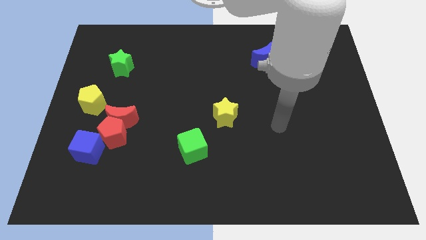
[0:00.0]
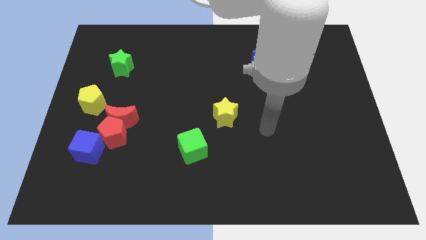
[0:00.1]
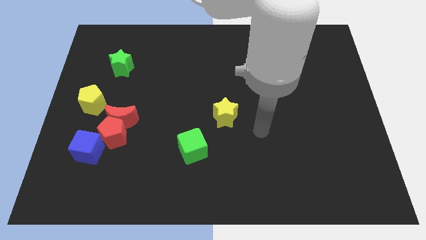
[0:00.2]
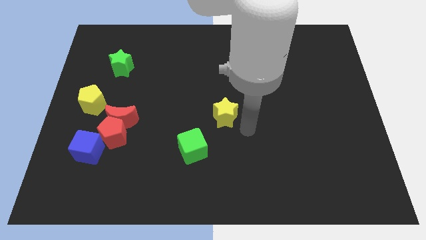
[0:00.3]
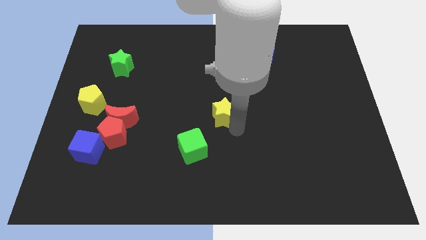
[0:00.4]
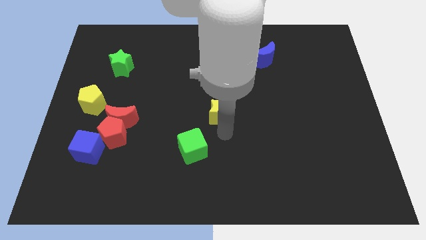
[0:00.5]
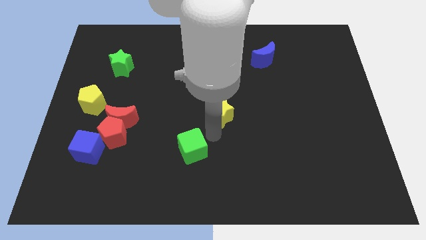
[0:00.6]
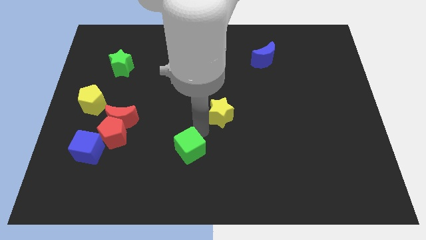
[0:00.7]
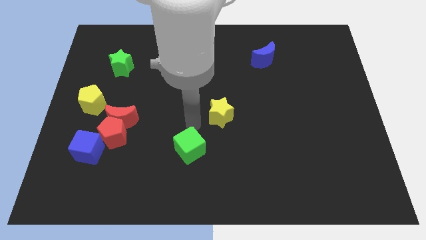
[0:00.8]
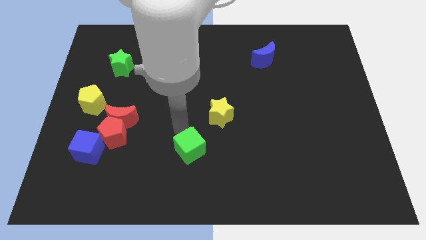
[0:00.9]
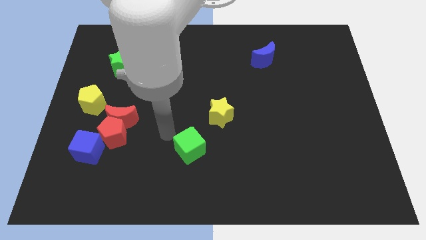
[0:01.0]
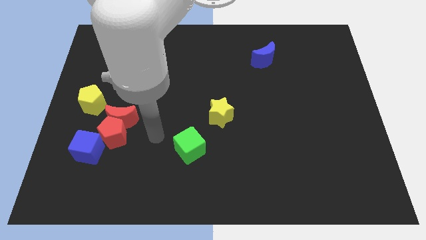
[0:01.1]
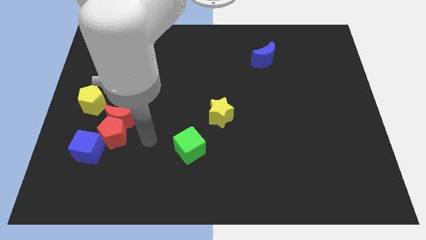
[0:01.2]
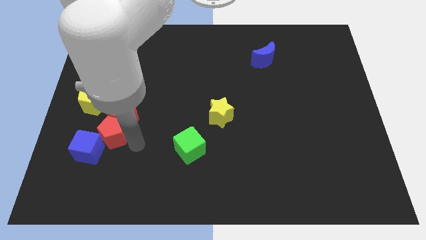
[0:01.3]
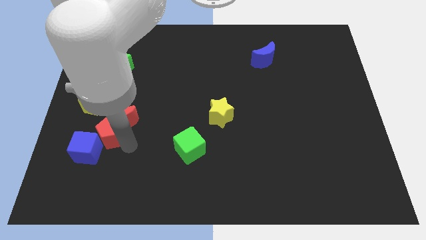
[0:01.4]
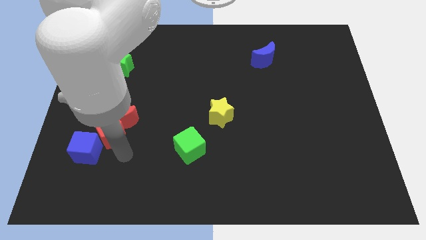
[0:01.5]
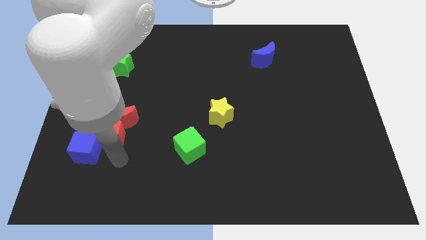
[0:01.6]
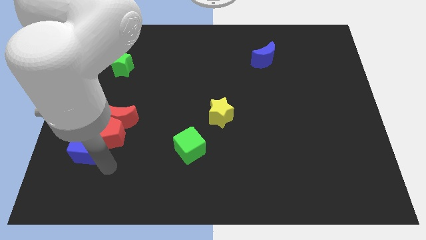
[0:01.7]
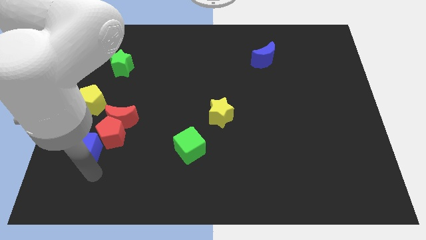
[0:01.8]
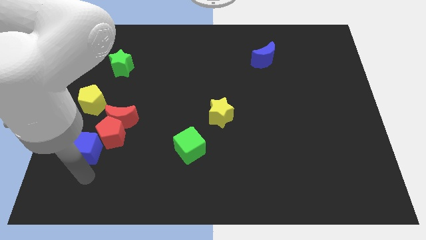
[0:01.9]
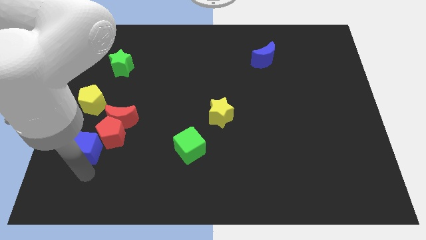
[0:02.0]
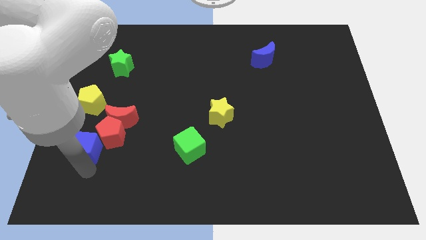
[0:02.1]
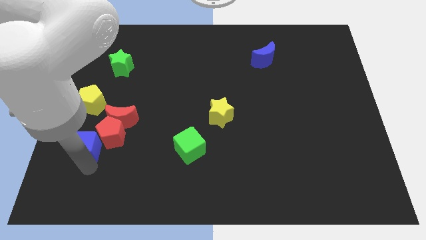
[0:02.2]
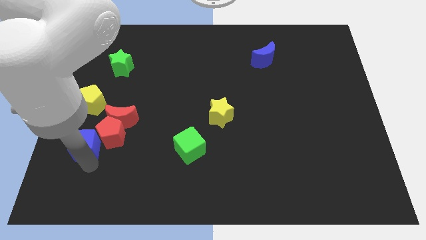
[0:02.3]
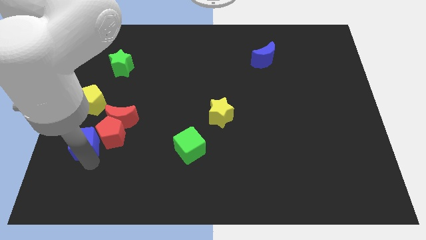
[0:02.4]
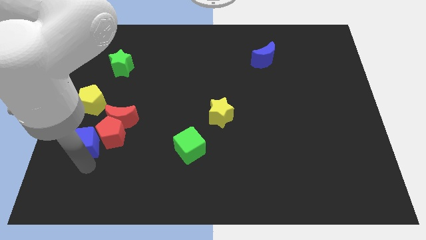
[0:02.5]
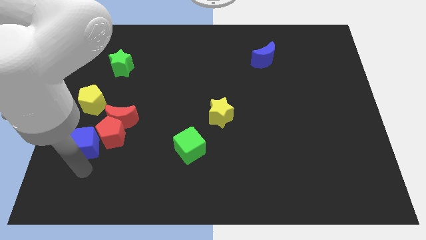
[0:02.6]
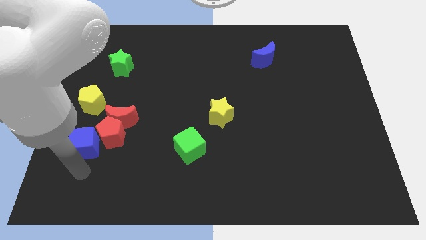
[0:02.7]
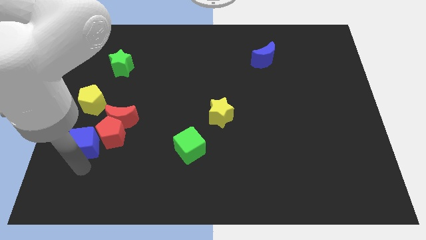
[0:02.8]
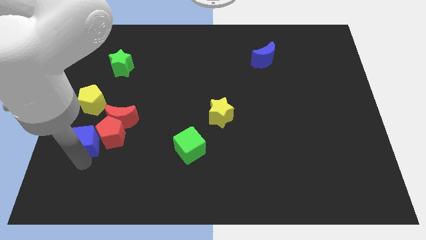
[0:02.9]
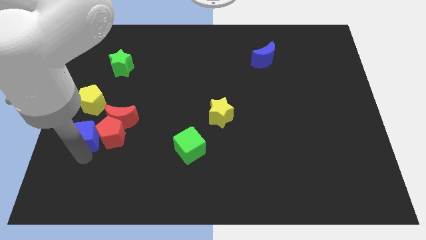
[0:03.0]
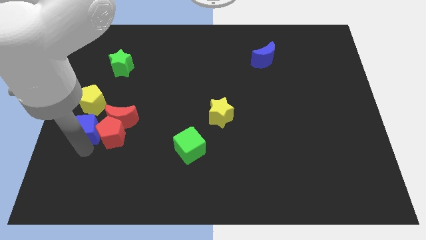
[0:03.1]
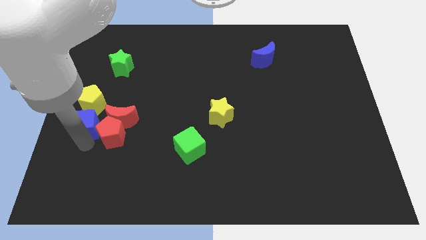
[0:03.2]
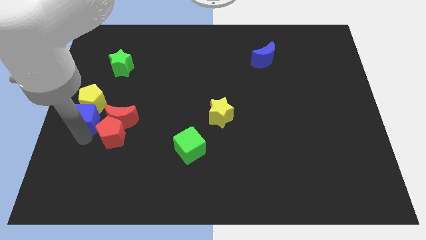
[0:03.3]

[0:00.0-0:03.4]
slightly slide the blue cube upwards

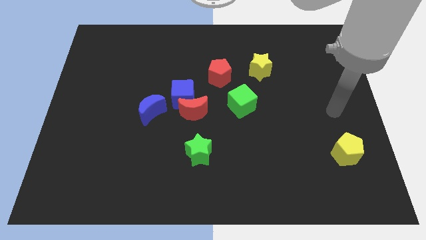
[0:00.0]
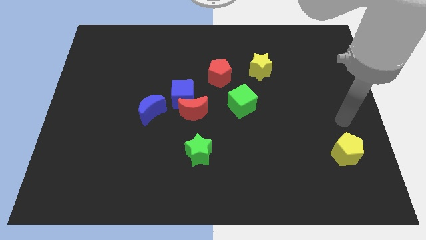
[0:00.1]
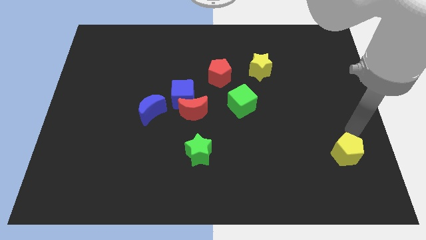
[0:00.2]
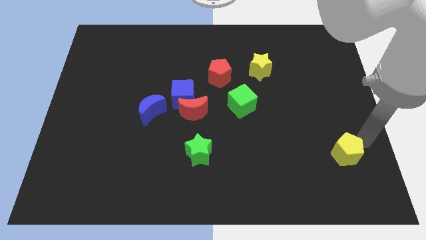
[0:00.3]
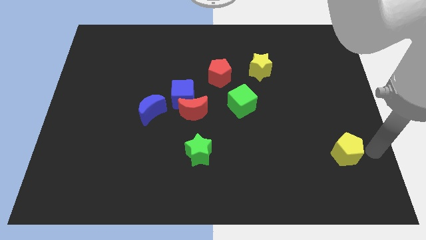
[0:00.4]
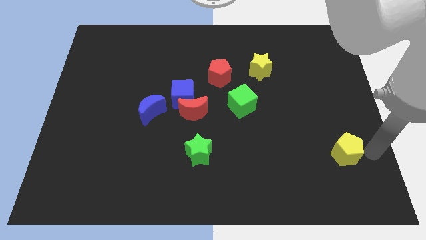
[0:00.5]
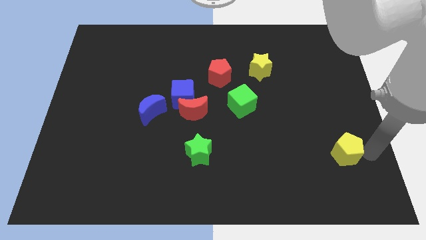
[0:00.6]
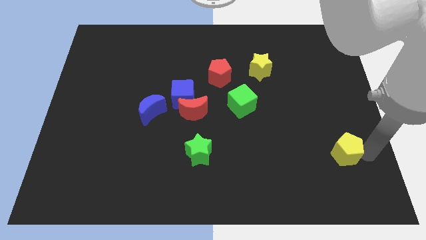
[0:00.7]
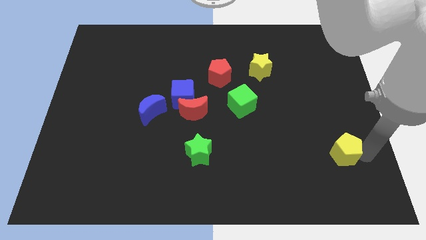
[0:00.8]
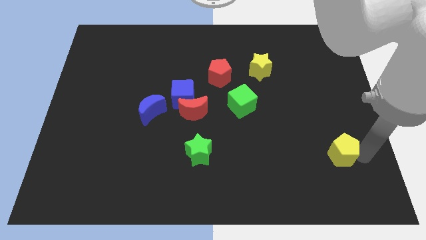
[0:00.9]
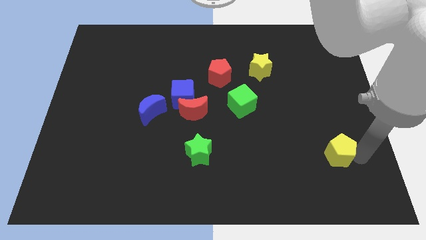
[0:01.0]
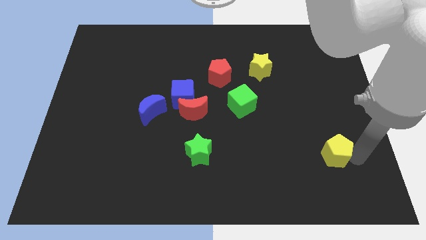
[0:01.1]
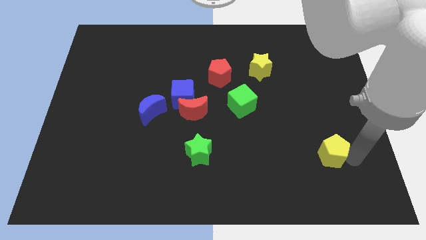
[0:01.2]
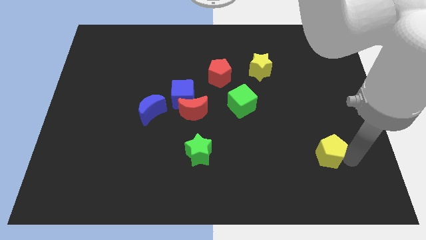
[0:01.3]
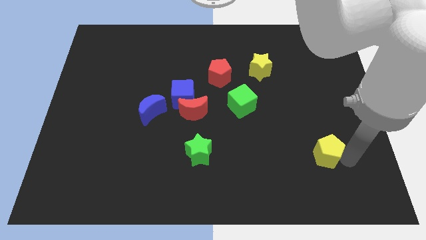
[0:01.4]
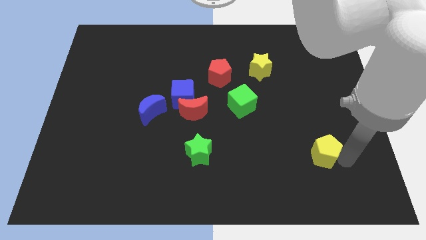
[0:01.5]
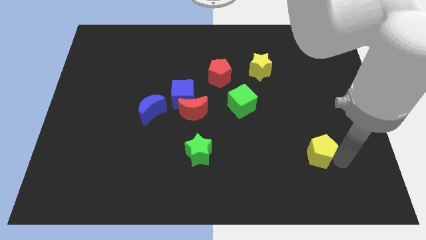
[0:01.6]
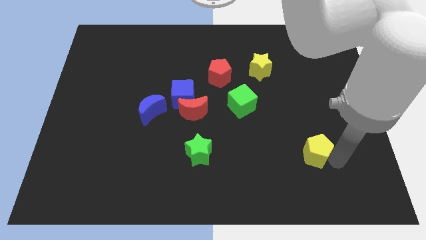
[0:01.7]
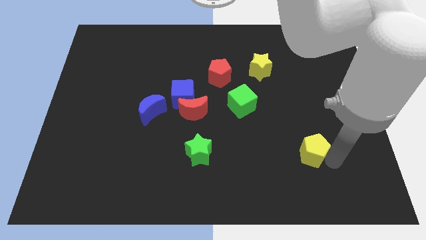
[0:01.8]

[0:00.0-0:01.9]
slightly slide the yellow pentagon to the left

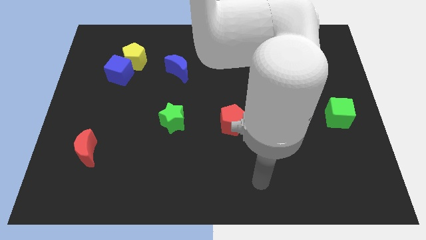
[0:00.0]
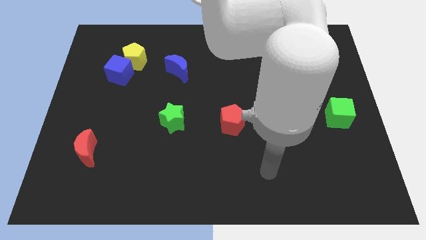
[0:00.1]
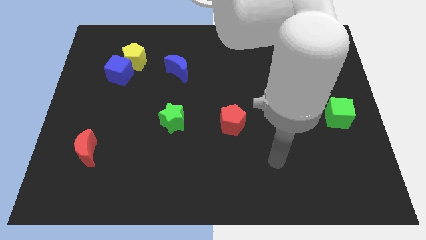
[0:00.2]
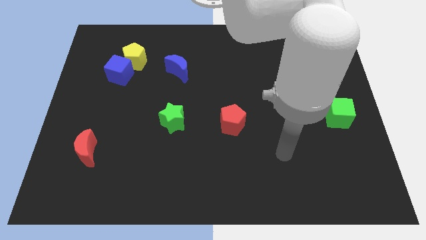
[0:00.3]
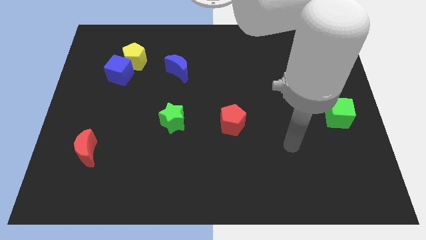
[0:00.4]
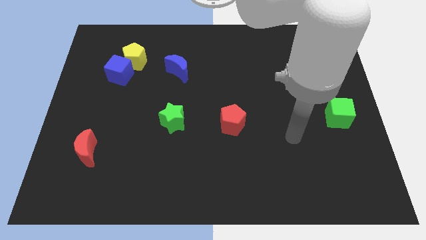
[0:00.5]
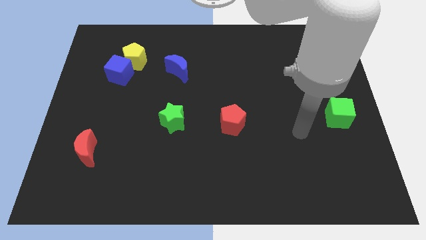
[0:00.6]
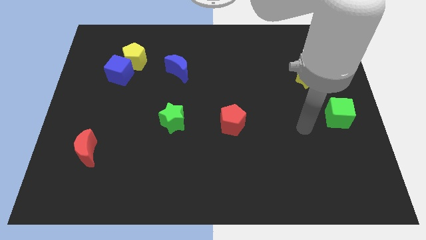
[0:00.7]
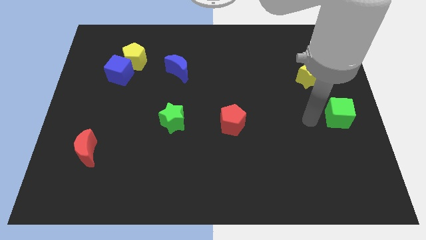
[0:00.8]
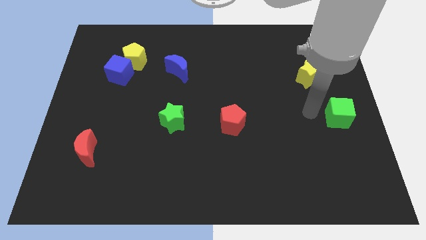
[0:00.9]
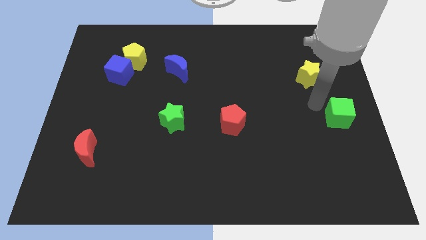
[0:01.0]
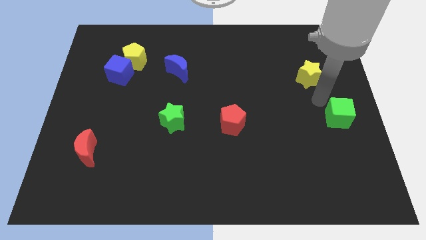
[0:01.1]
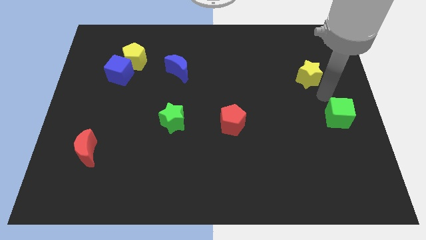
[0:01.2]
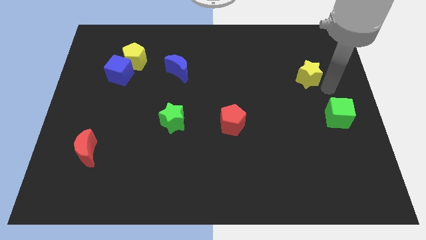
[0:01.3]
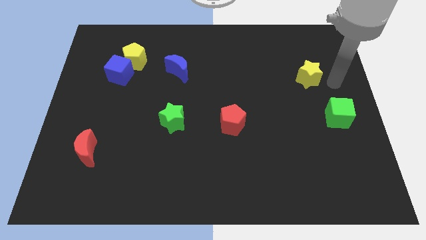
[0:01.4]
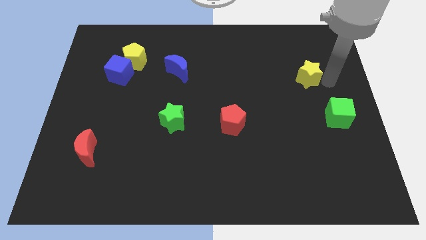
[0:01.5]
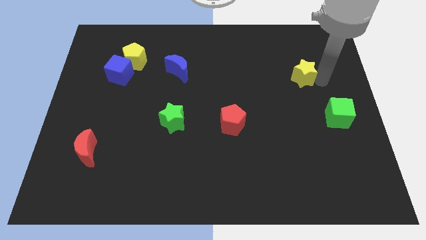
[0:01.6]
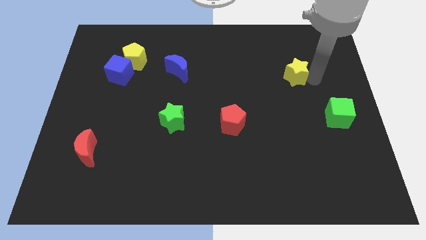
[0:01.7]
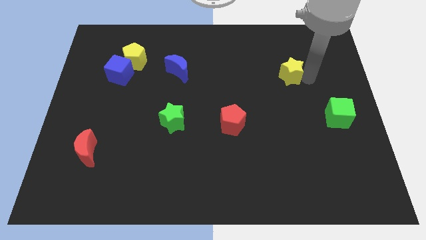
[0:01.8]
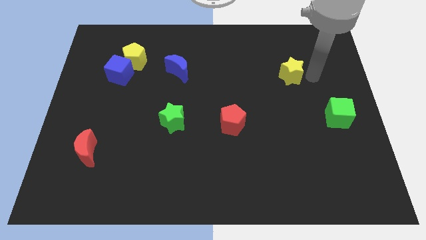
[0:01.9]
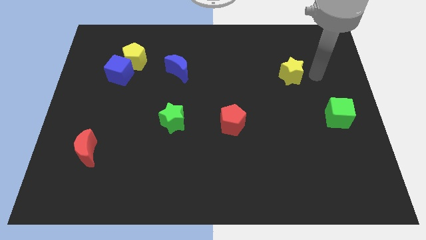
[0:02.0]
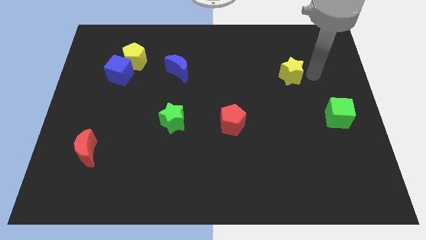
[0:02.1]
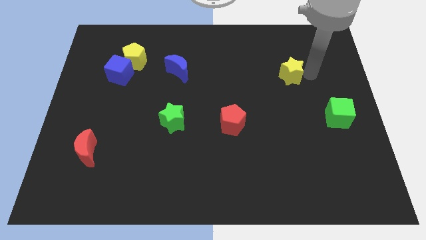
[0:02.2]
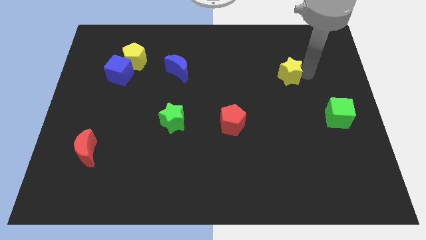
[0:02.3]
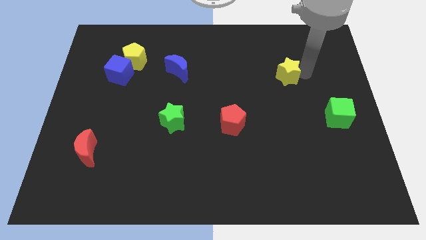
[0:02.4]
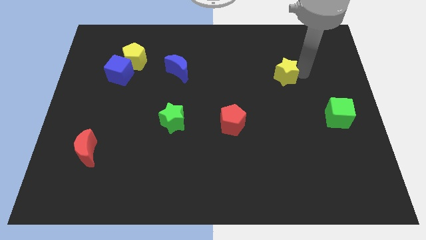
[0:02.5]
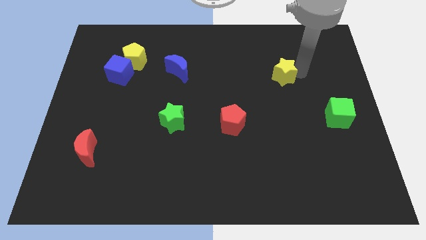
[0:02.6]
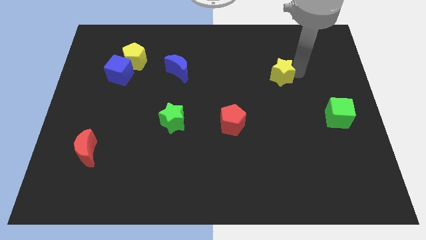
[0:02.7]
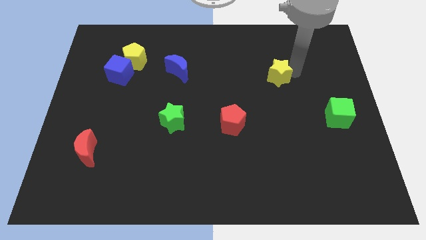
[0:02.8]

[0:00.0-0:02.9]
move the yellow star left slightly
